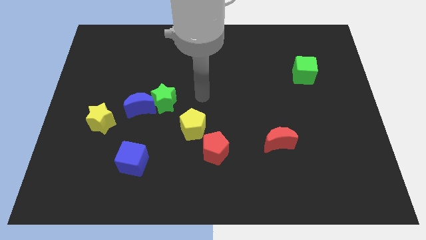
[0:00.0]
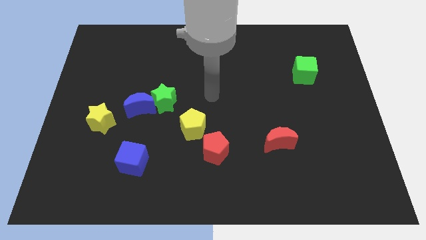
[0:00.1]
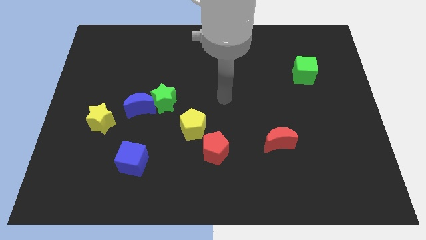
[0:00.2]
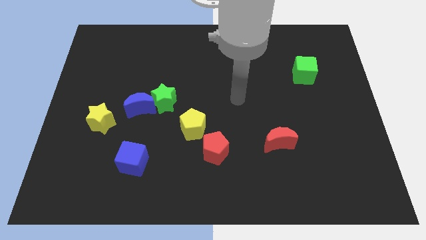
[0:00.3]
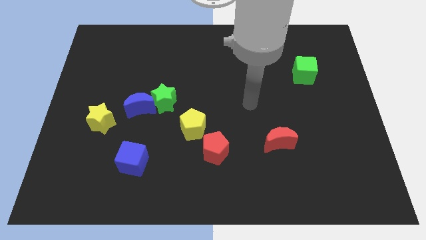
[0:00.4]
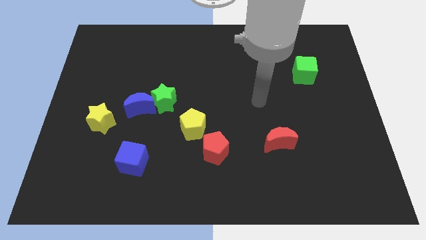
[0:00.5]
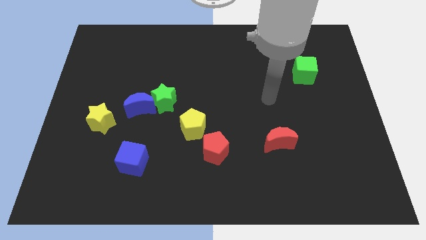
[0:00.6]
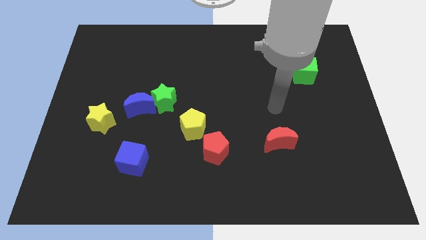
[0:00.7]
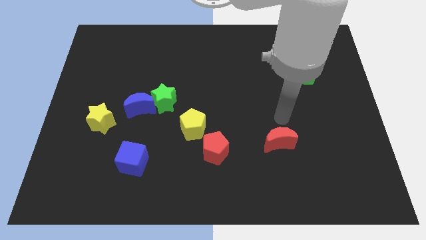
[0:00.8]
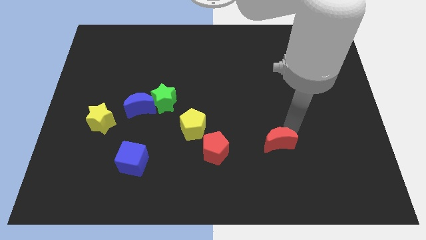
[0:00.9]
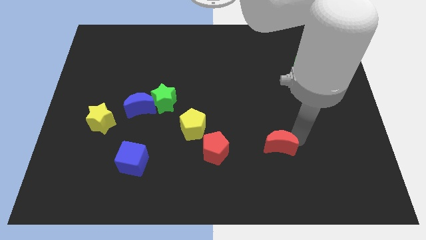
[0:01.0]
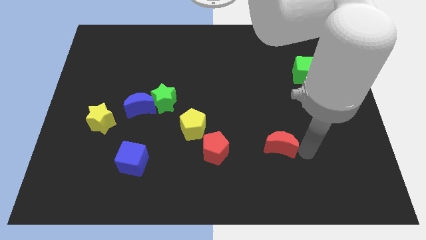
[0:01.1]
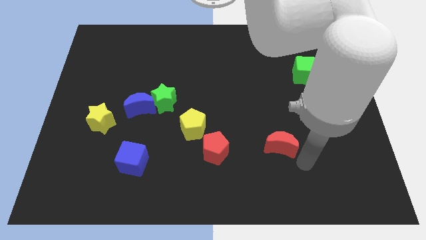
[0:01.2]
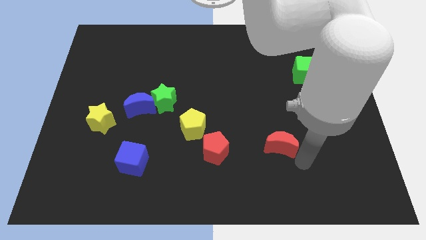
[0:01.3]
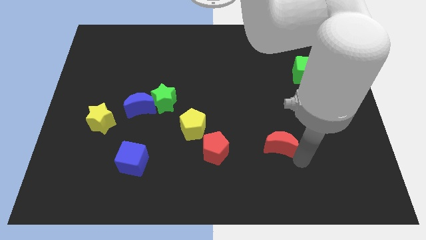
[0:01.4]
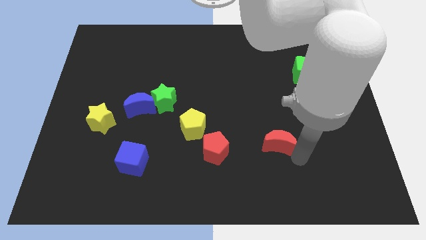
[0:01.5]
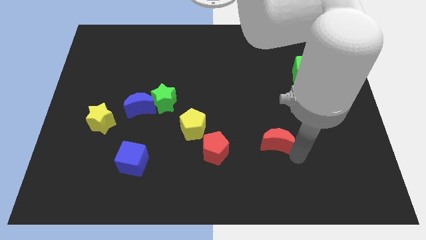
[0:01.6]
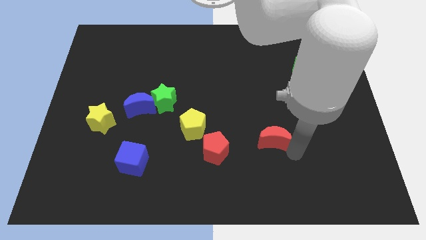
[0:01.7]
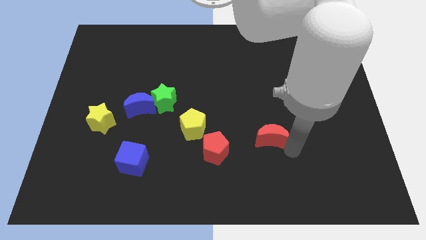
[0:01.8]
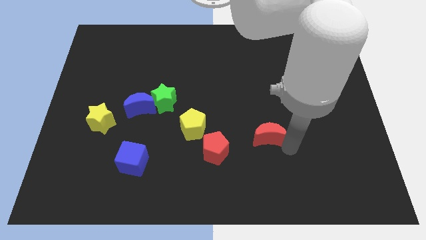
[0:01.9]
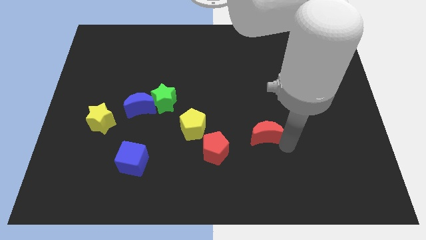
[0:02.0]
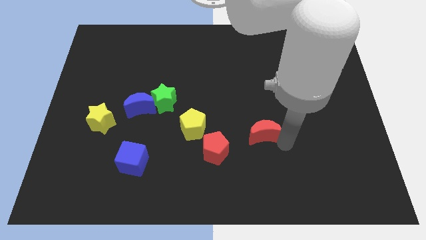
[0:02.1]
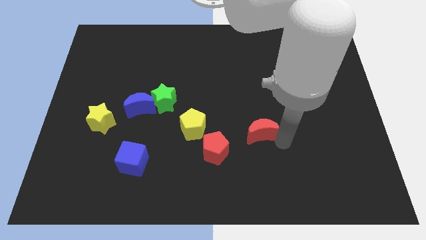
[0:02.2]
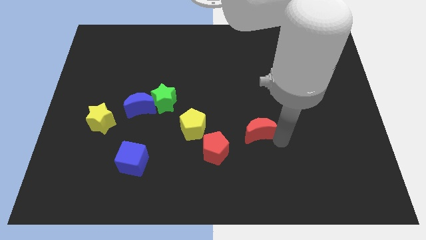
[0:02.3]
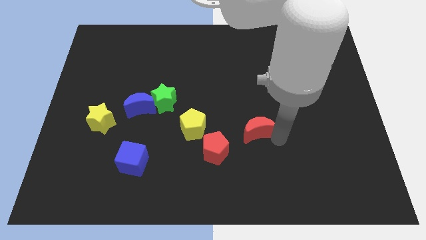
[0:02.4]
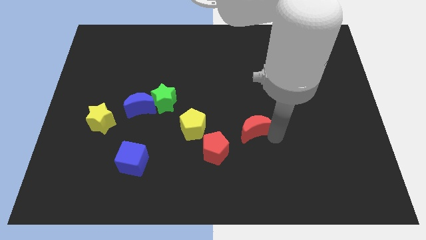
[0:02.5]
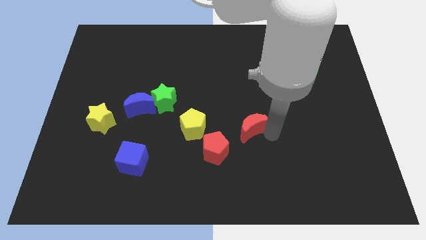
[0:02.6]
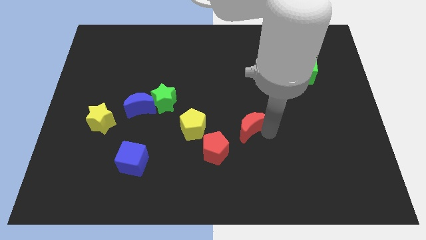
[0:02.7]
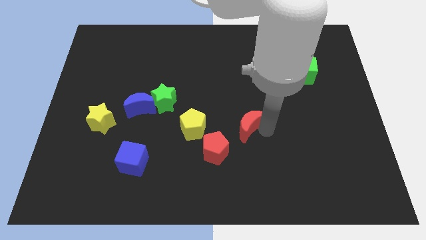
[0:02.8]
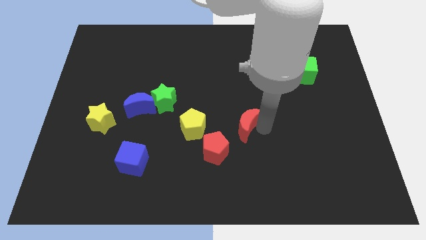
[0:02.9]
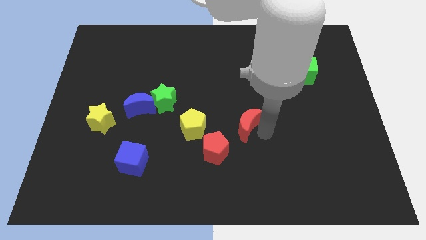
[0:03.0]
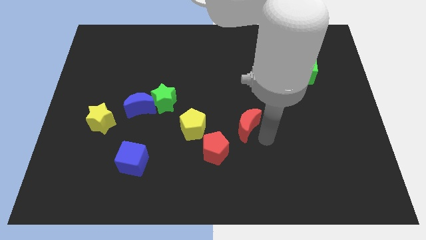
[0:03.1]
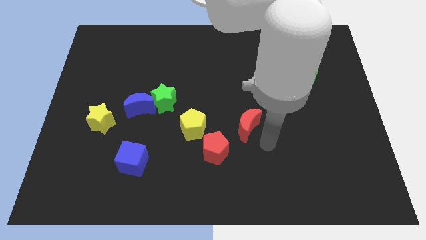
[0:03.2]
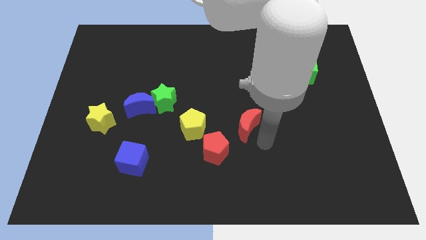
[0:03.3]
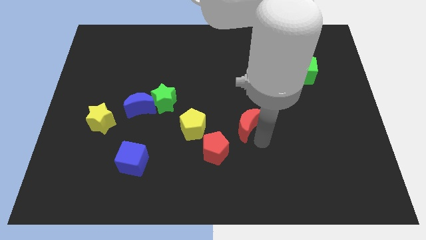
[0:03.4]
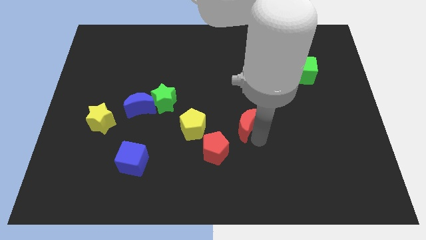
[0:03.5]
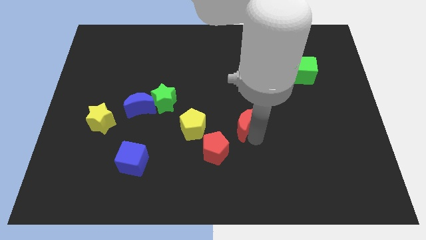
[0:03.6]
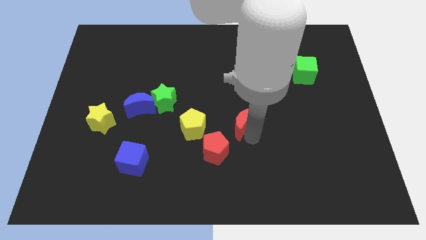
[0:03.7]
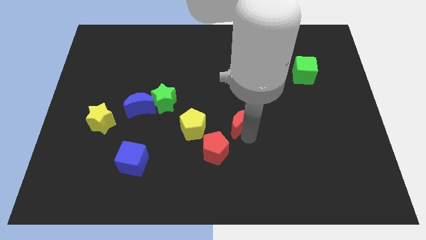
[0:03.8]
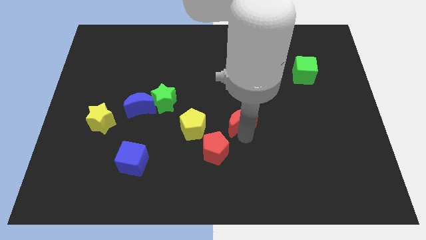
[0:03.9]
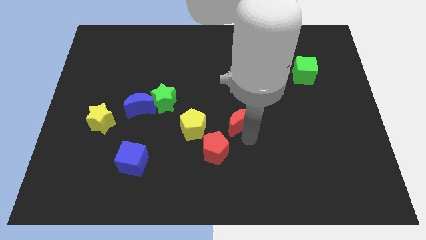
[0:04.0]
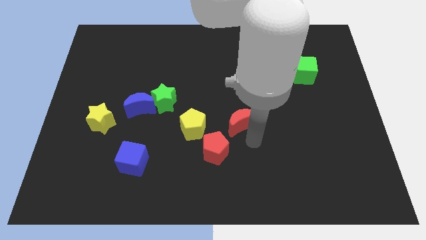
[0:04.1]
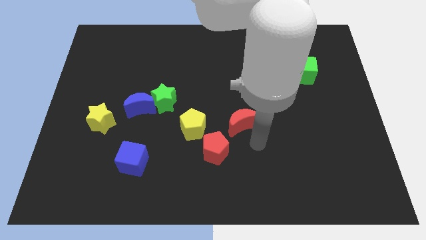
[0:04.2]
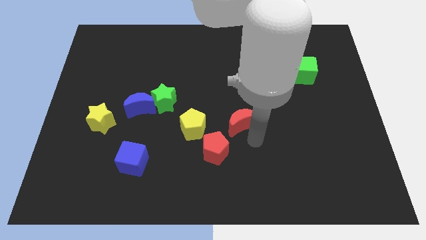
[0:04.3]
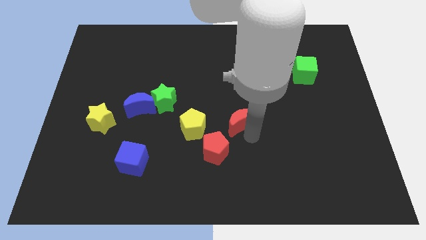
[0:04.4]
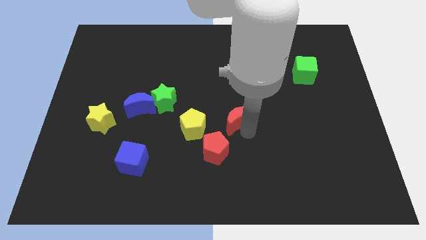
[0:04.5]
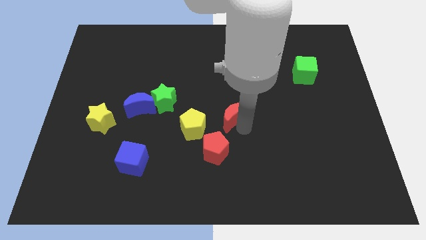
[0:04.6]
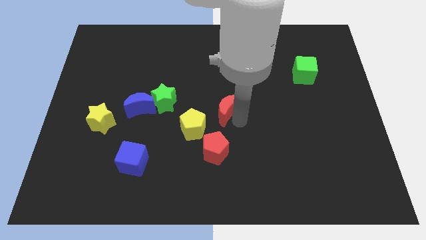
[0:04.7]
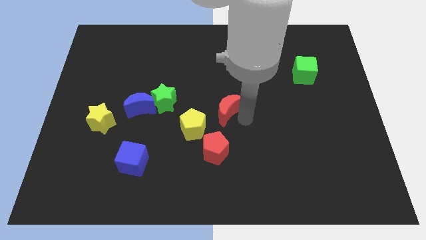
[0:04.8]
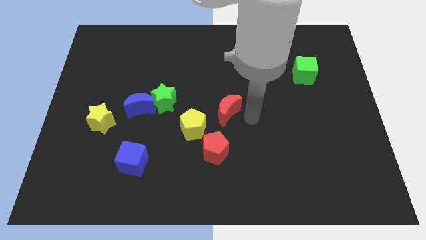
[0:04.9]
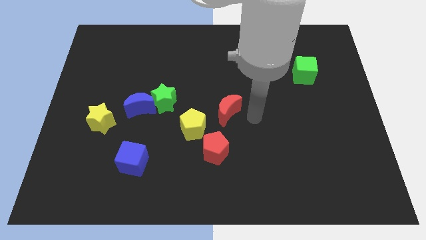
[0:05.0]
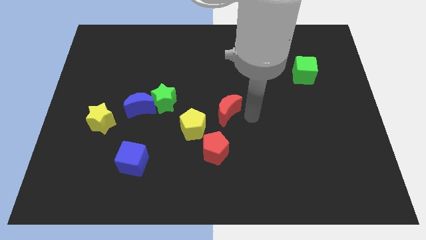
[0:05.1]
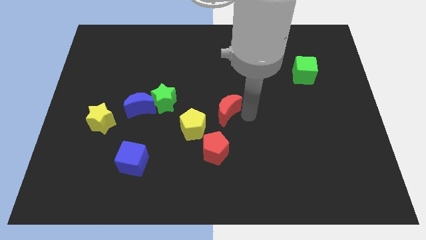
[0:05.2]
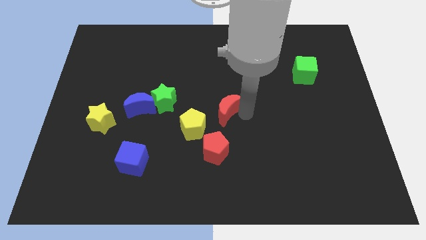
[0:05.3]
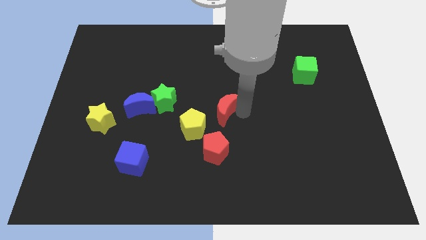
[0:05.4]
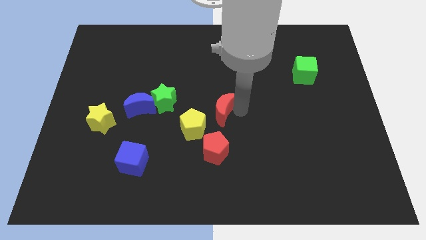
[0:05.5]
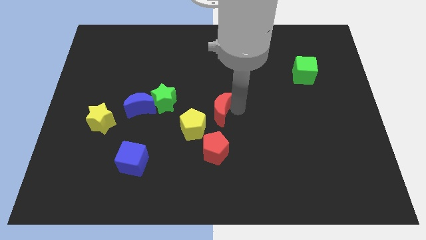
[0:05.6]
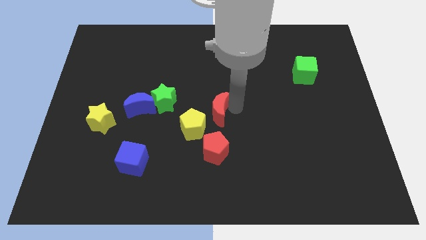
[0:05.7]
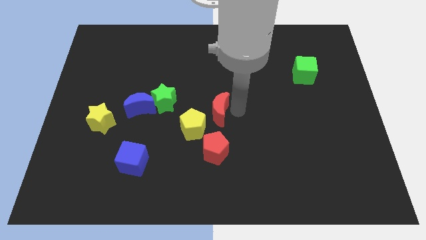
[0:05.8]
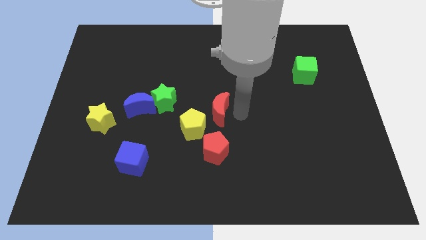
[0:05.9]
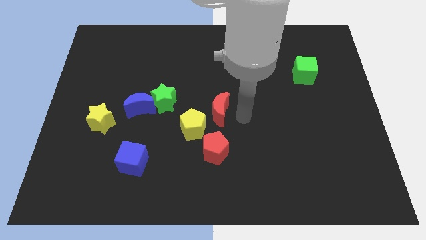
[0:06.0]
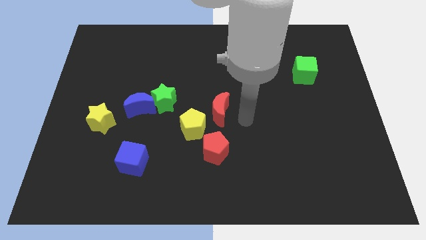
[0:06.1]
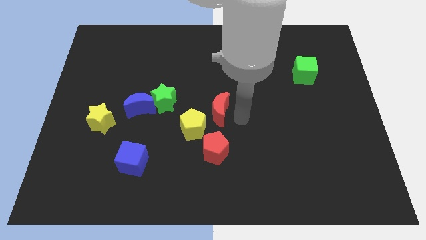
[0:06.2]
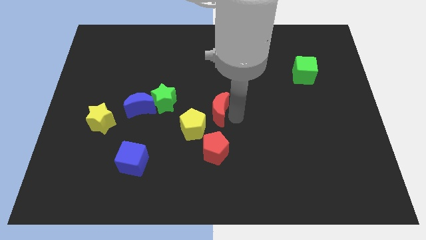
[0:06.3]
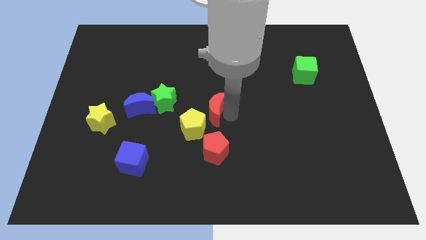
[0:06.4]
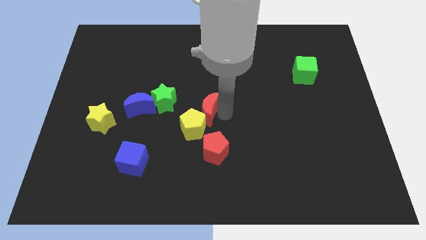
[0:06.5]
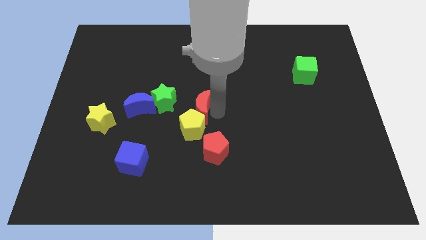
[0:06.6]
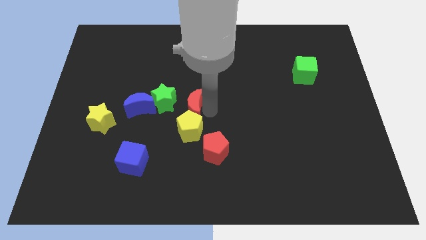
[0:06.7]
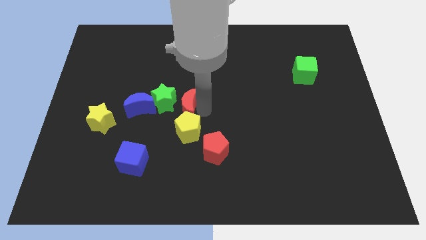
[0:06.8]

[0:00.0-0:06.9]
slide the red moon next to the green star

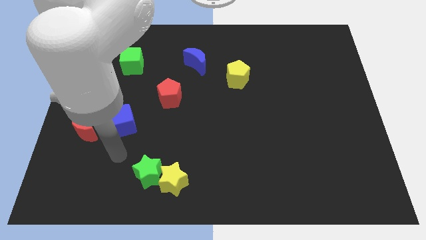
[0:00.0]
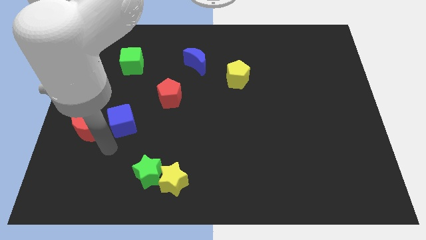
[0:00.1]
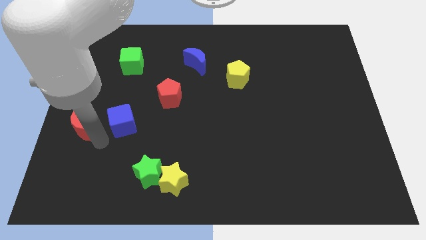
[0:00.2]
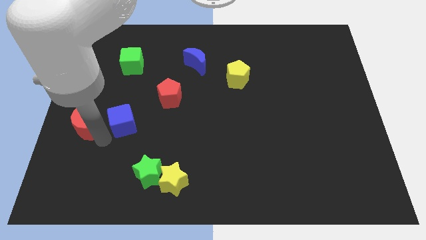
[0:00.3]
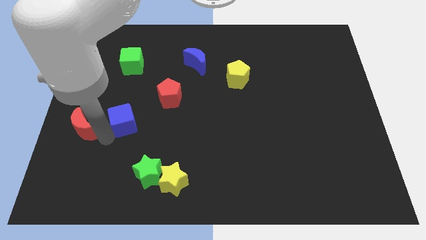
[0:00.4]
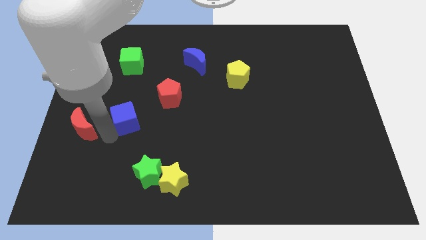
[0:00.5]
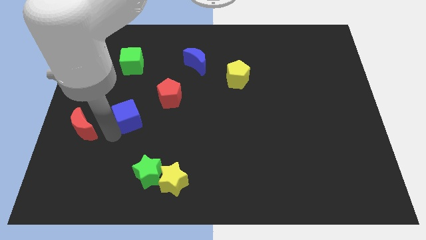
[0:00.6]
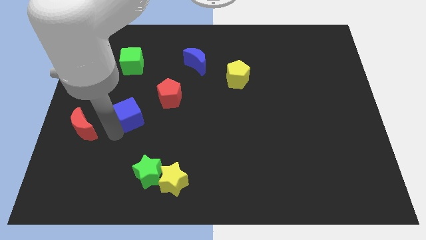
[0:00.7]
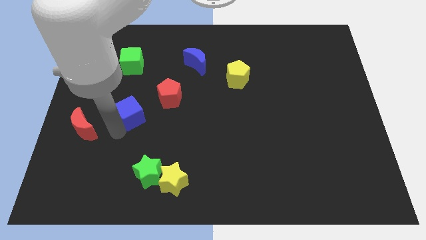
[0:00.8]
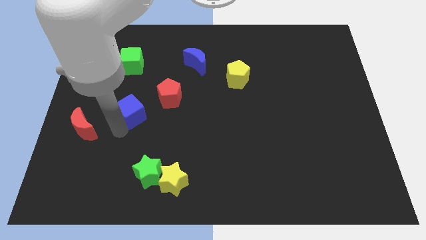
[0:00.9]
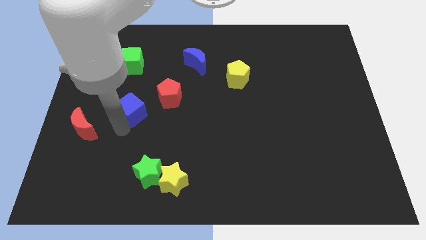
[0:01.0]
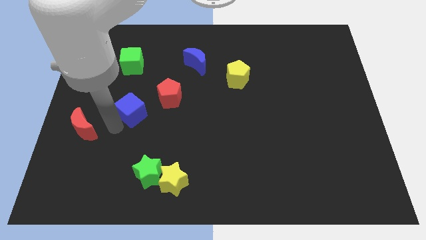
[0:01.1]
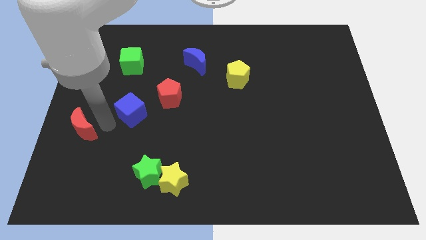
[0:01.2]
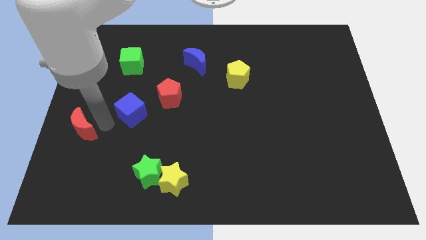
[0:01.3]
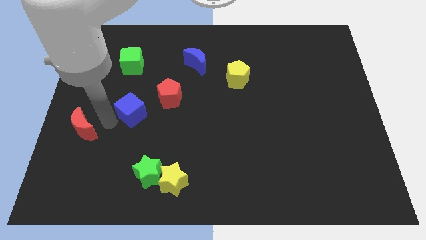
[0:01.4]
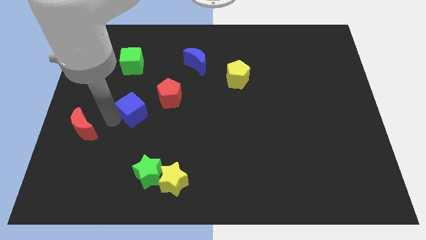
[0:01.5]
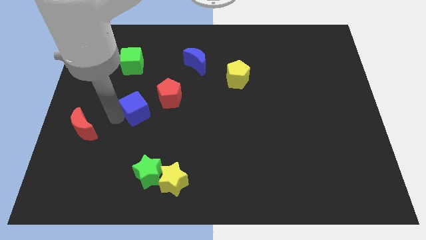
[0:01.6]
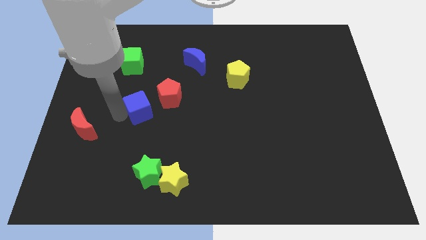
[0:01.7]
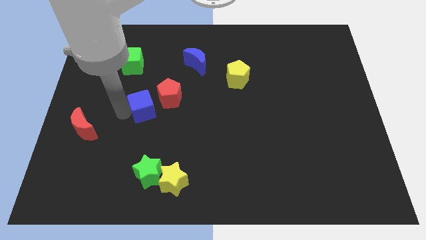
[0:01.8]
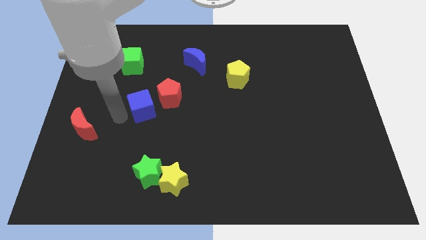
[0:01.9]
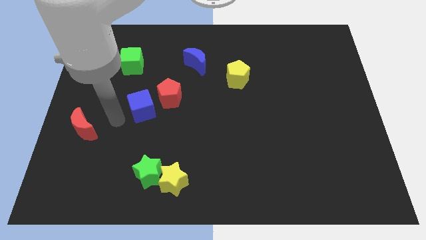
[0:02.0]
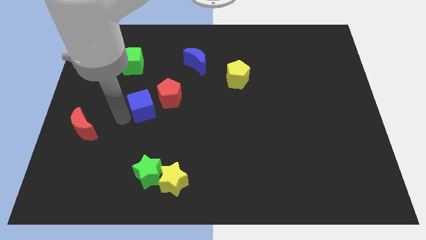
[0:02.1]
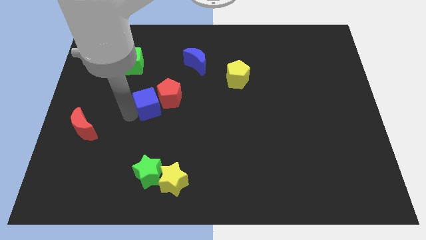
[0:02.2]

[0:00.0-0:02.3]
slide the blue cube towards the red pentagon
